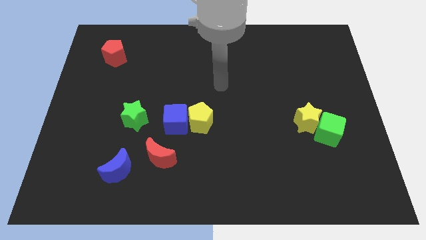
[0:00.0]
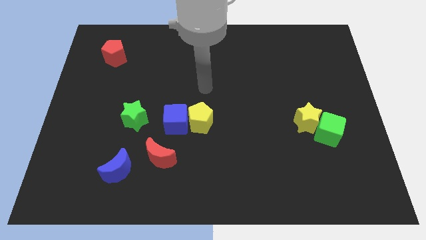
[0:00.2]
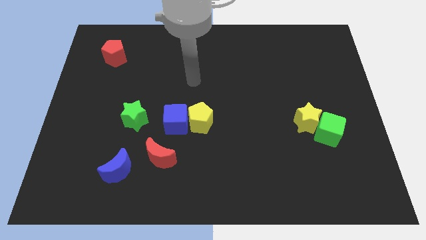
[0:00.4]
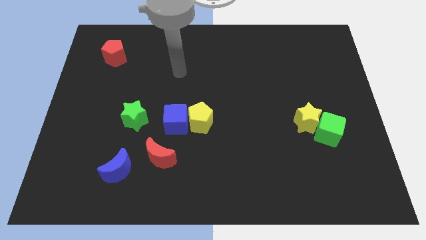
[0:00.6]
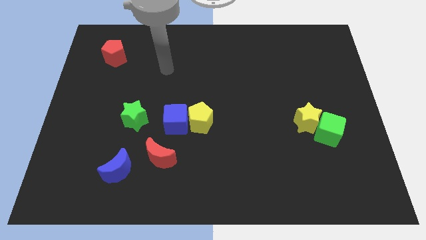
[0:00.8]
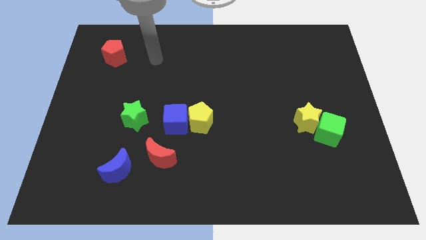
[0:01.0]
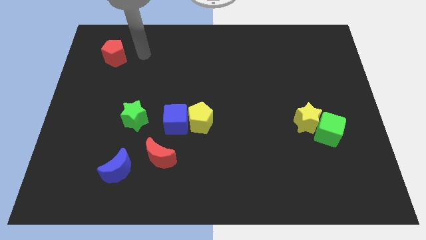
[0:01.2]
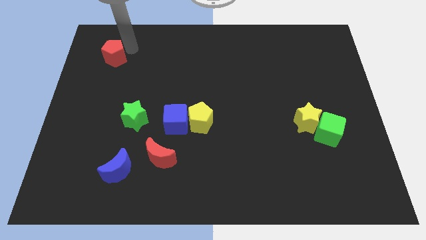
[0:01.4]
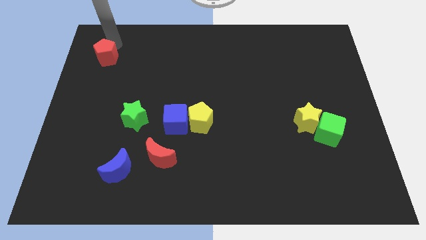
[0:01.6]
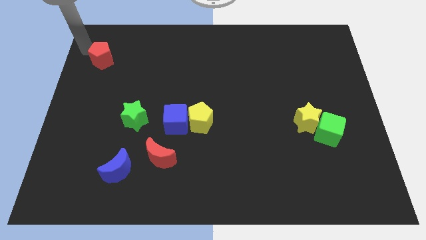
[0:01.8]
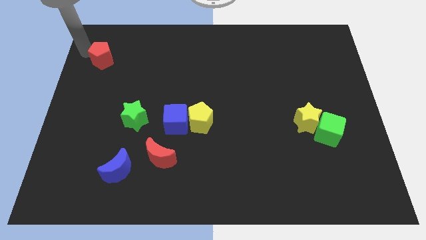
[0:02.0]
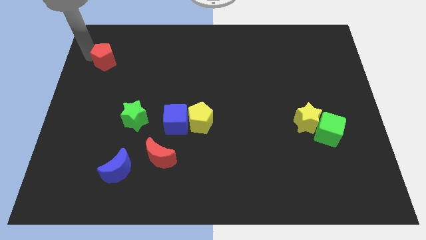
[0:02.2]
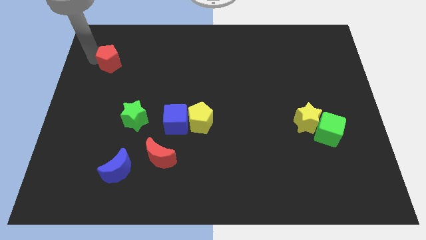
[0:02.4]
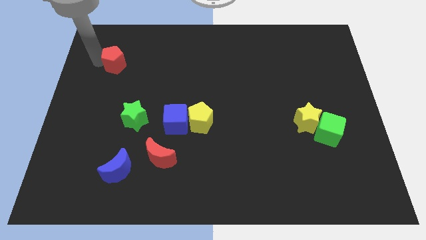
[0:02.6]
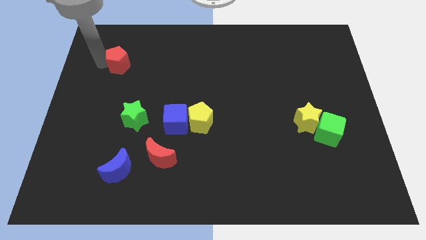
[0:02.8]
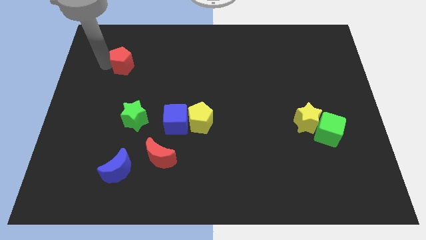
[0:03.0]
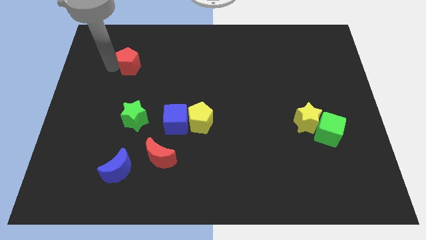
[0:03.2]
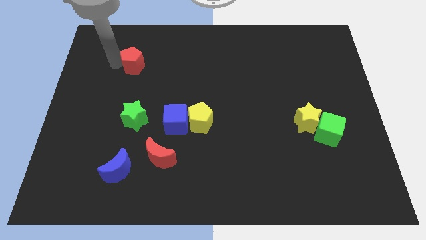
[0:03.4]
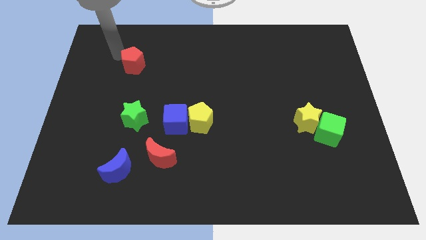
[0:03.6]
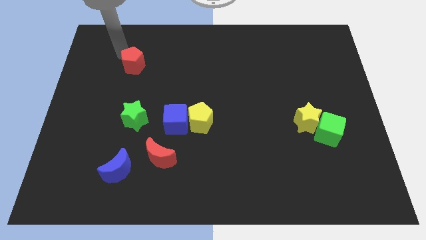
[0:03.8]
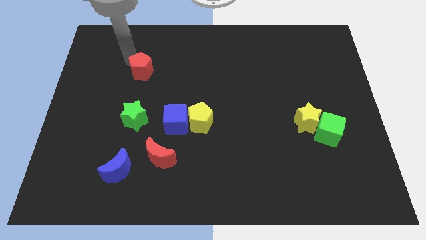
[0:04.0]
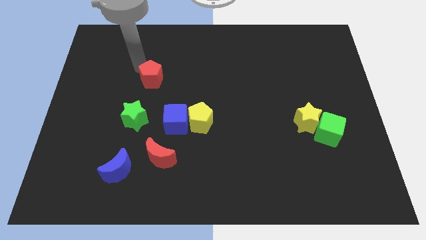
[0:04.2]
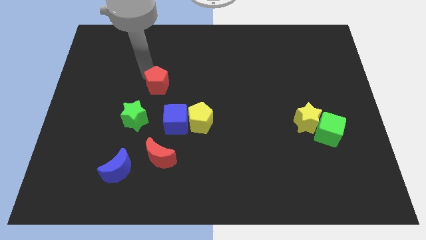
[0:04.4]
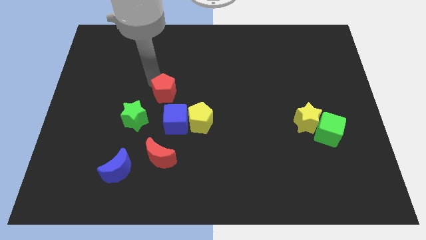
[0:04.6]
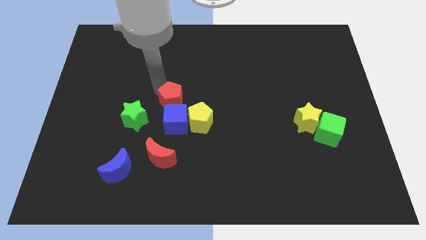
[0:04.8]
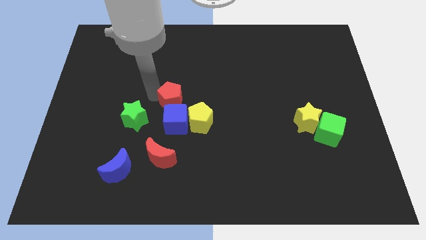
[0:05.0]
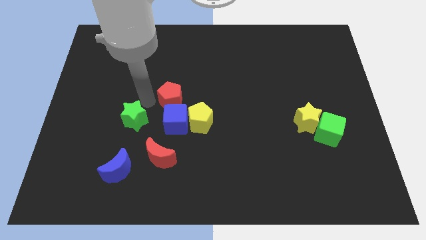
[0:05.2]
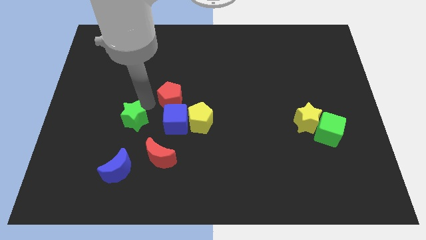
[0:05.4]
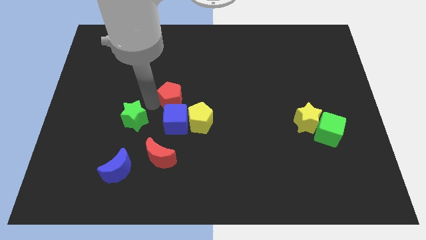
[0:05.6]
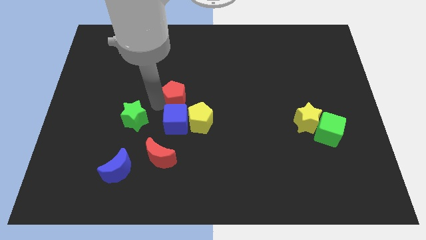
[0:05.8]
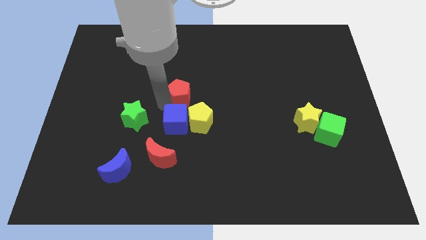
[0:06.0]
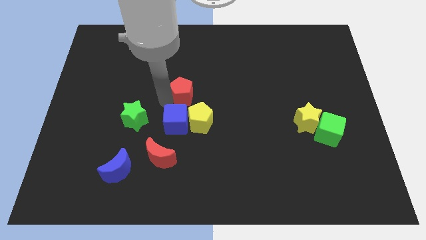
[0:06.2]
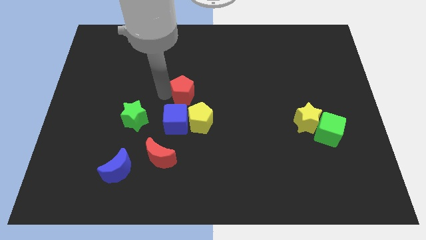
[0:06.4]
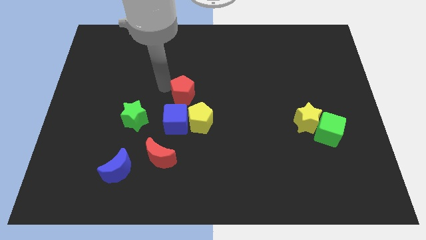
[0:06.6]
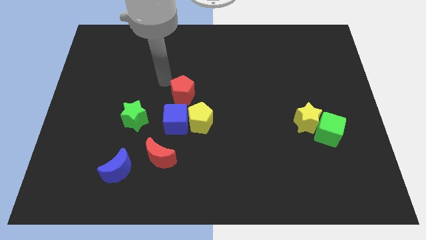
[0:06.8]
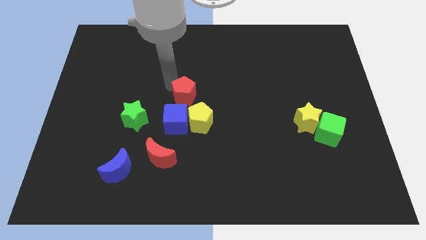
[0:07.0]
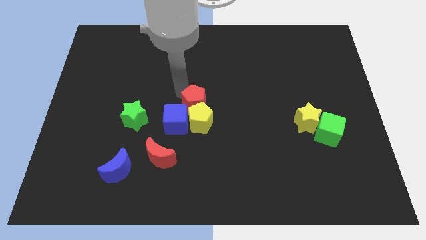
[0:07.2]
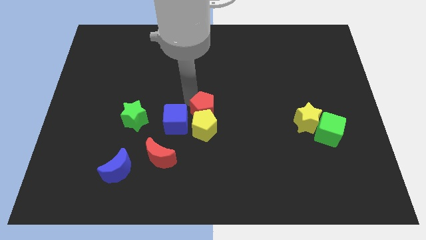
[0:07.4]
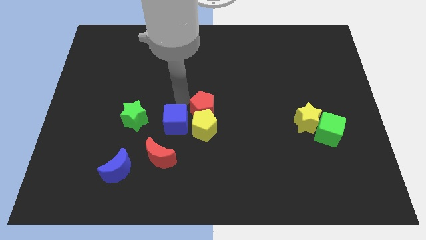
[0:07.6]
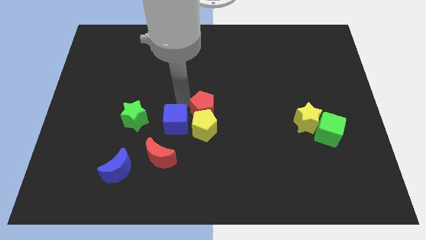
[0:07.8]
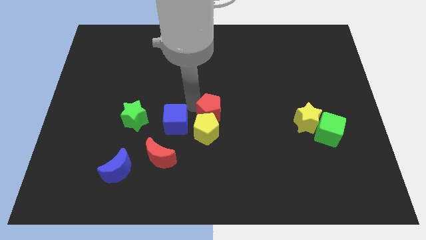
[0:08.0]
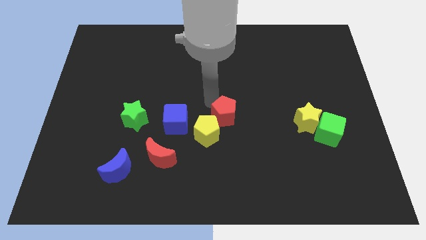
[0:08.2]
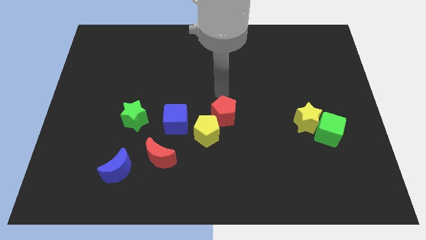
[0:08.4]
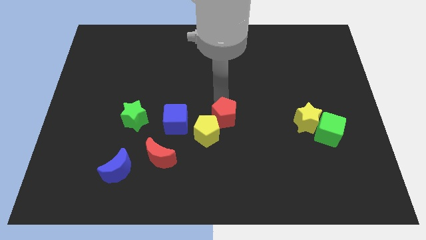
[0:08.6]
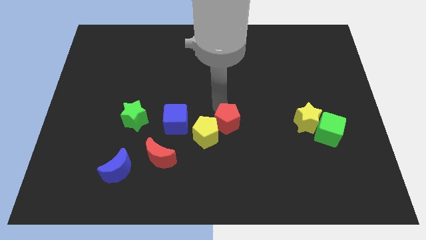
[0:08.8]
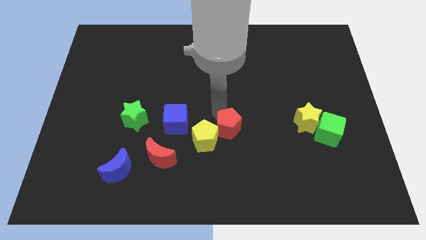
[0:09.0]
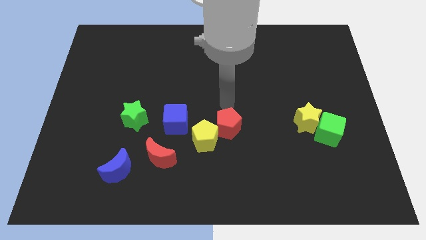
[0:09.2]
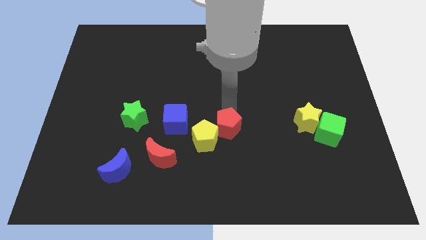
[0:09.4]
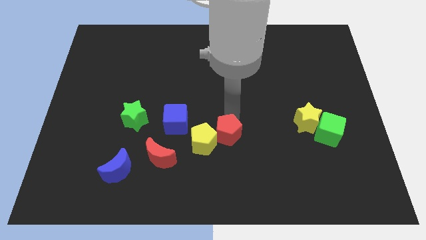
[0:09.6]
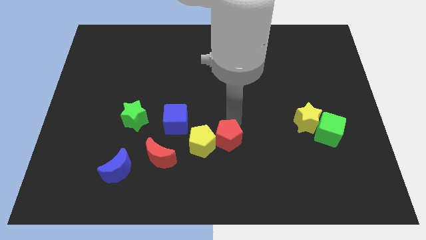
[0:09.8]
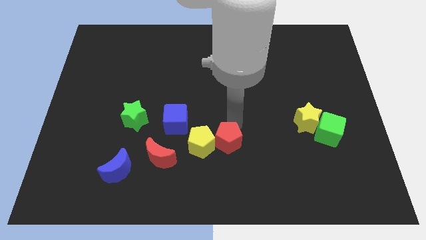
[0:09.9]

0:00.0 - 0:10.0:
put the red pentagon to the bottom right of the yellow pentagon

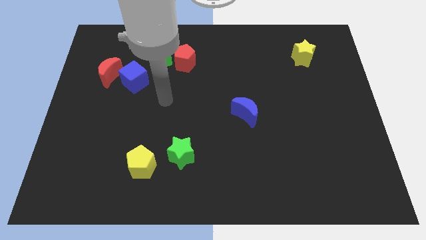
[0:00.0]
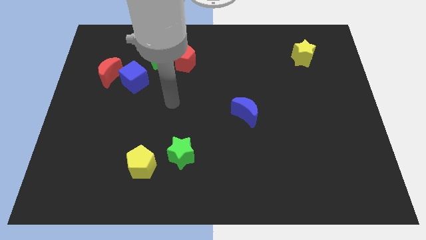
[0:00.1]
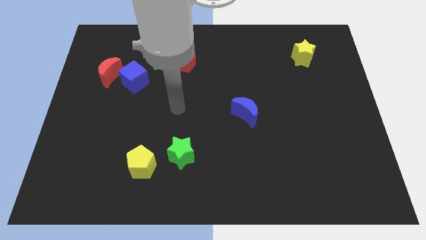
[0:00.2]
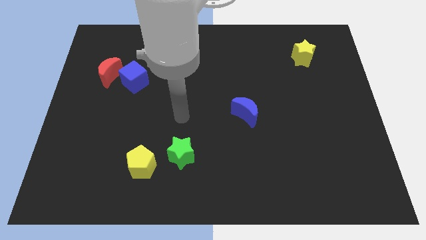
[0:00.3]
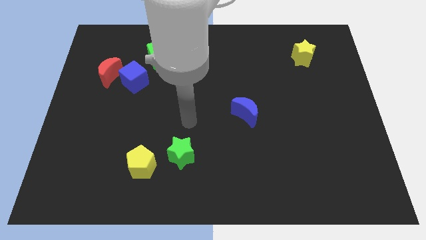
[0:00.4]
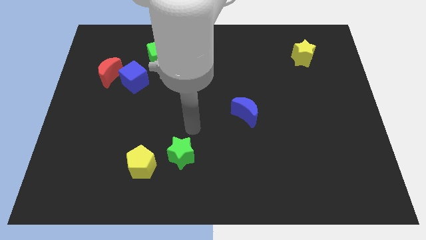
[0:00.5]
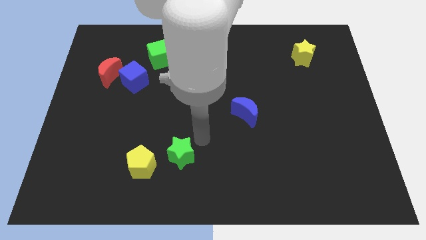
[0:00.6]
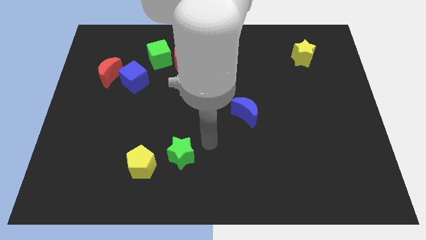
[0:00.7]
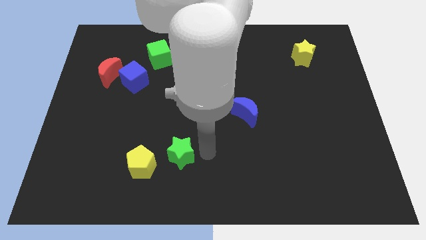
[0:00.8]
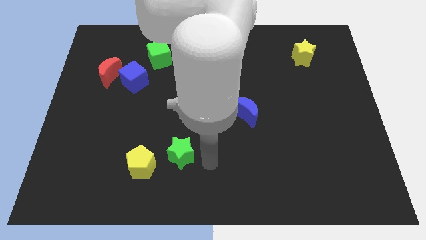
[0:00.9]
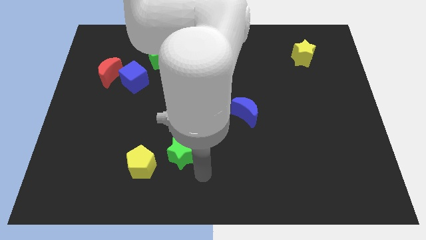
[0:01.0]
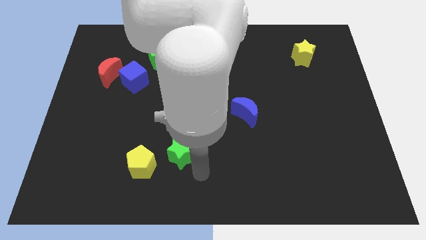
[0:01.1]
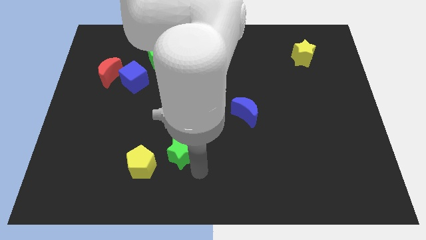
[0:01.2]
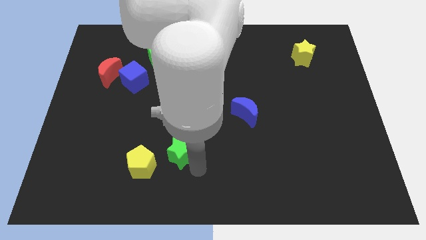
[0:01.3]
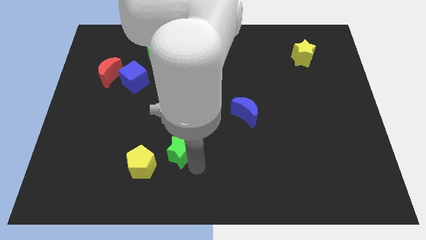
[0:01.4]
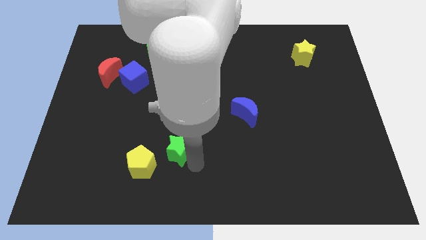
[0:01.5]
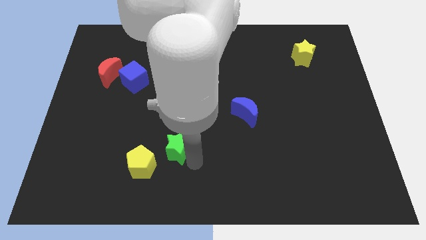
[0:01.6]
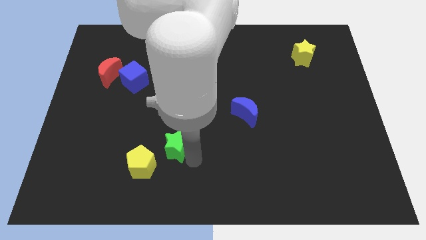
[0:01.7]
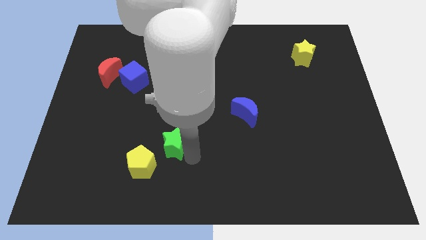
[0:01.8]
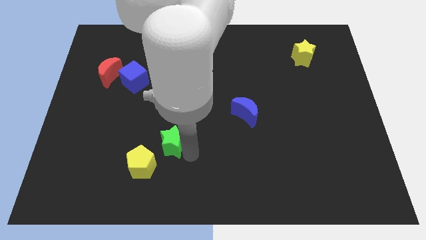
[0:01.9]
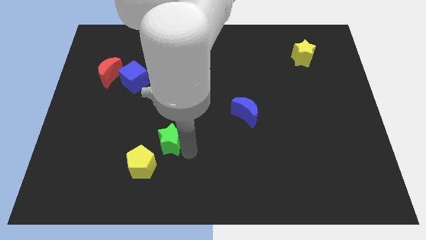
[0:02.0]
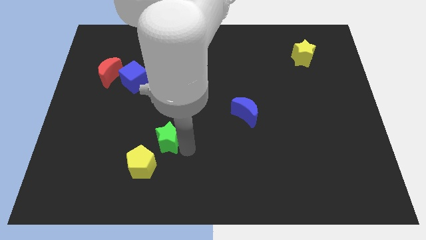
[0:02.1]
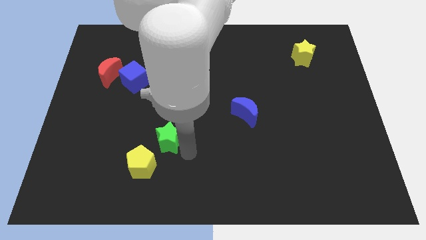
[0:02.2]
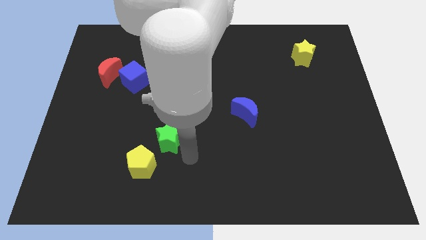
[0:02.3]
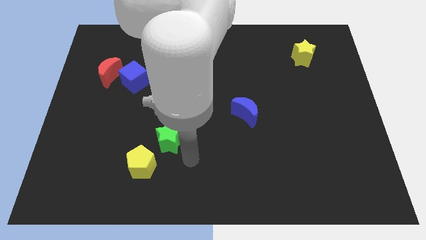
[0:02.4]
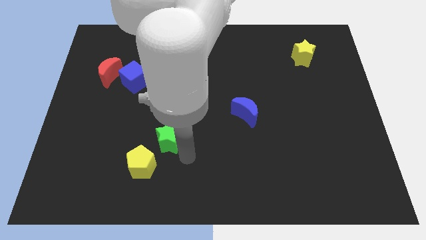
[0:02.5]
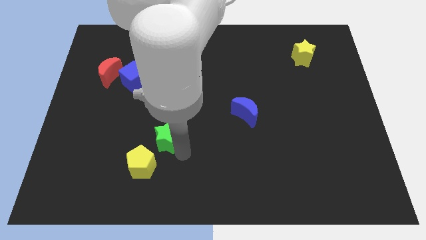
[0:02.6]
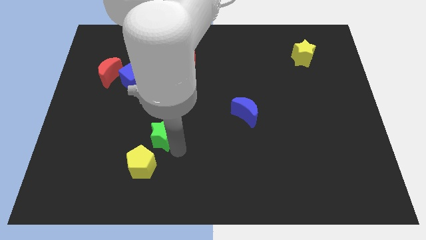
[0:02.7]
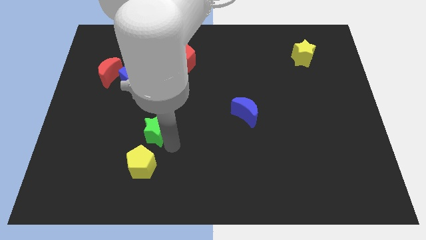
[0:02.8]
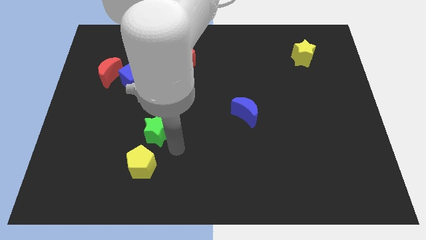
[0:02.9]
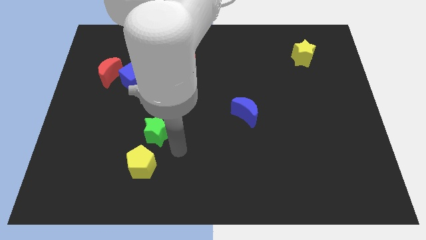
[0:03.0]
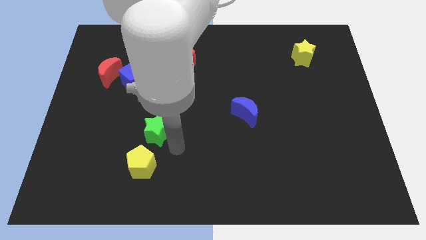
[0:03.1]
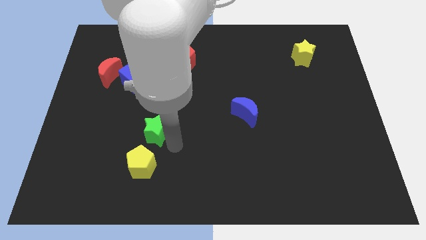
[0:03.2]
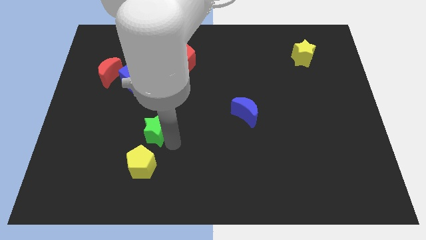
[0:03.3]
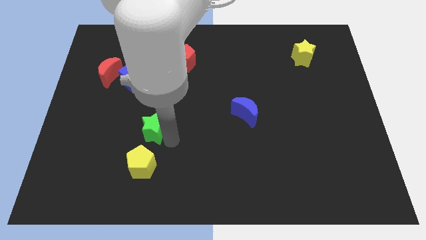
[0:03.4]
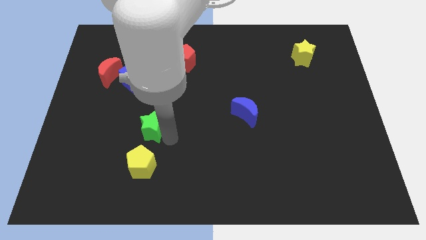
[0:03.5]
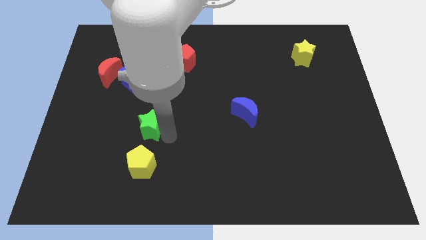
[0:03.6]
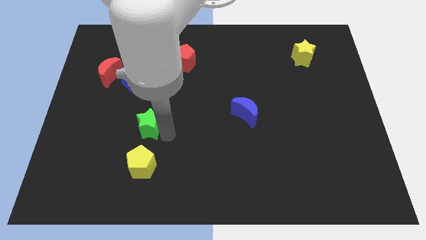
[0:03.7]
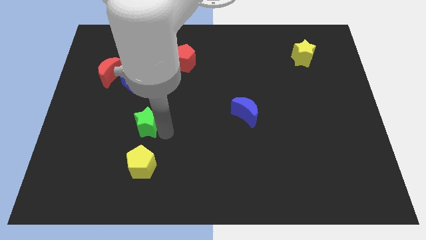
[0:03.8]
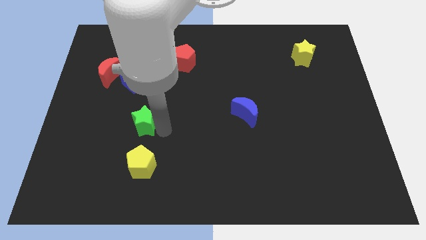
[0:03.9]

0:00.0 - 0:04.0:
move the green star to the bottom of the blue cube
